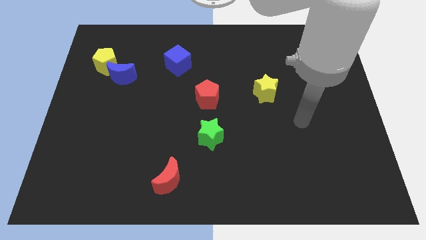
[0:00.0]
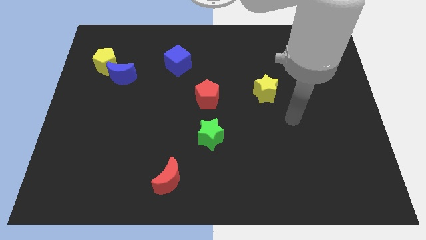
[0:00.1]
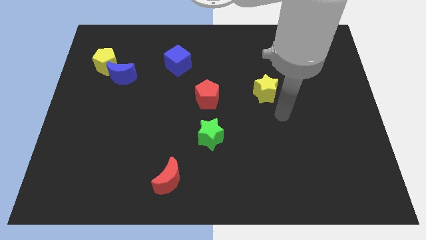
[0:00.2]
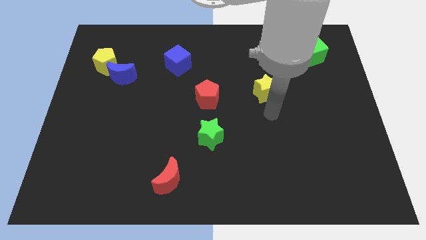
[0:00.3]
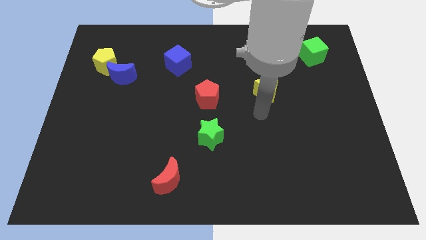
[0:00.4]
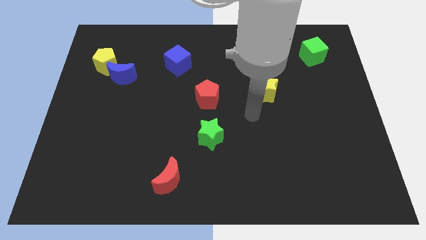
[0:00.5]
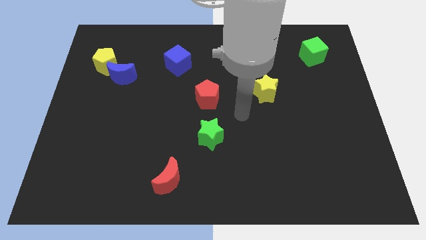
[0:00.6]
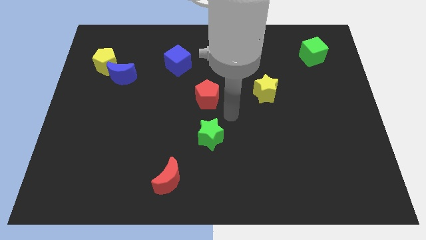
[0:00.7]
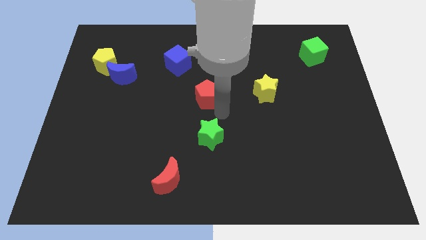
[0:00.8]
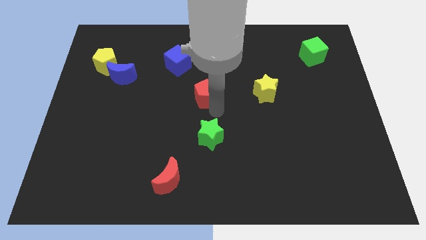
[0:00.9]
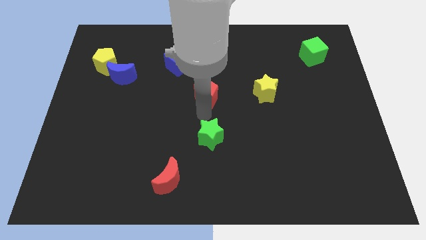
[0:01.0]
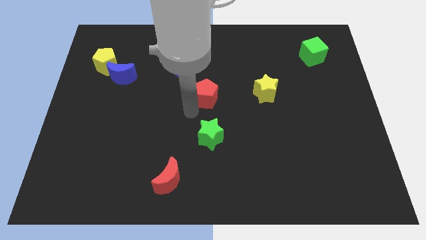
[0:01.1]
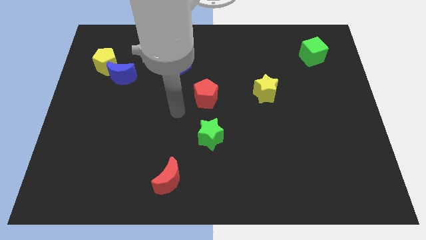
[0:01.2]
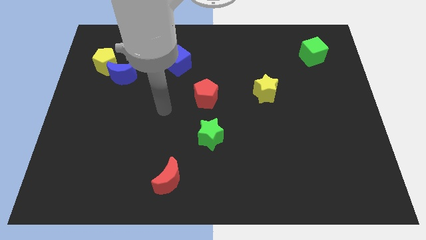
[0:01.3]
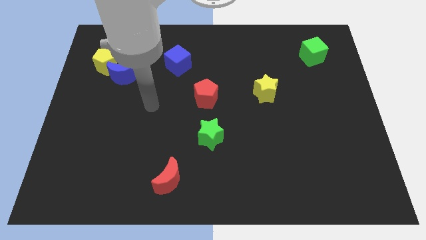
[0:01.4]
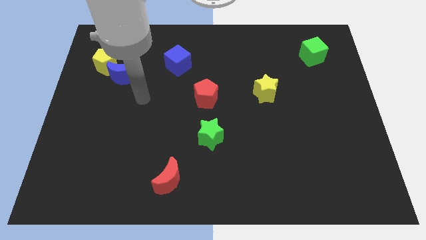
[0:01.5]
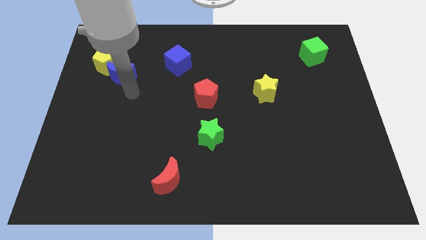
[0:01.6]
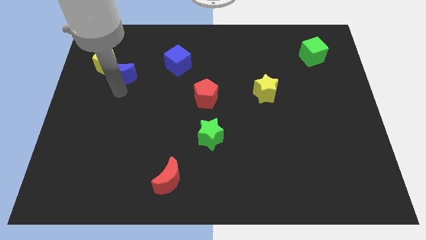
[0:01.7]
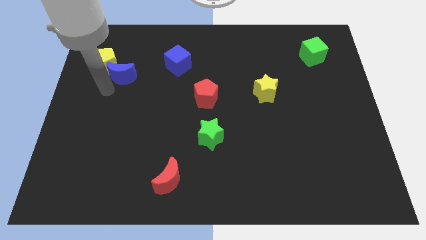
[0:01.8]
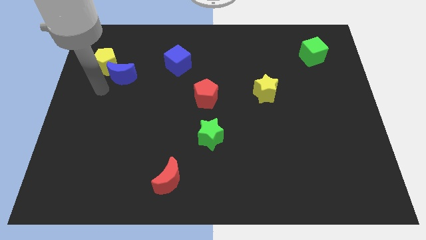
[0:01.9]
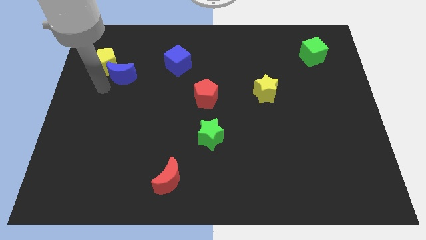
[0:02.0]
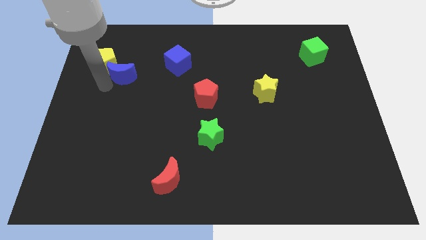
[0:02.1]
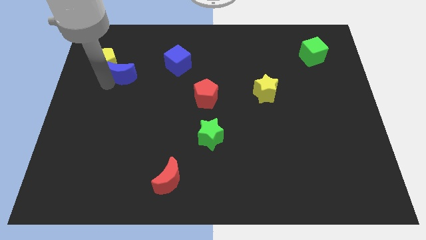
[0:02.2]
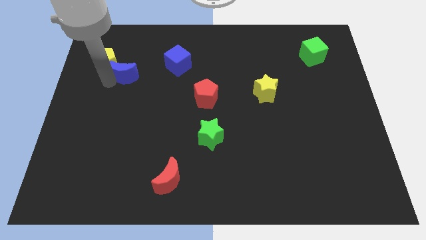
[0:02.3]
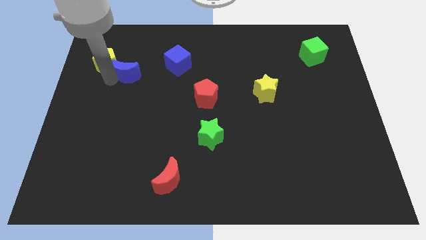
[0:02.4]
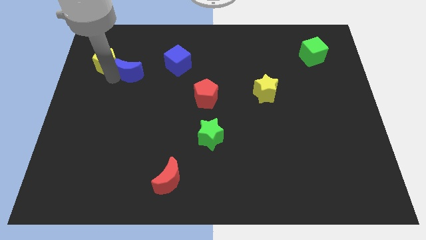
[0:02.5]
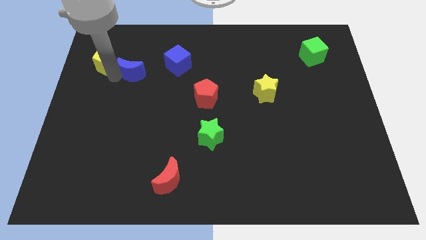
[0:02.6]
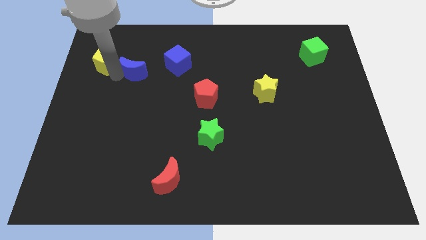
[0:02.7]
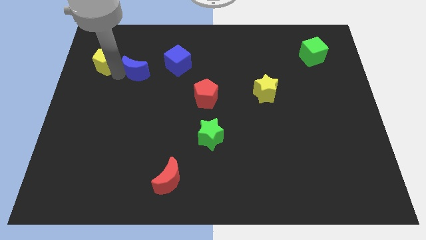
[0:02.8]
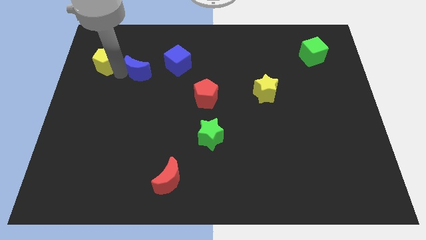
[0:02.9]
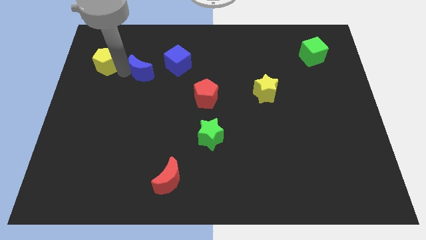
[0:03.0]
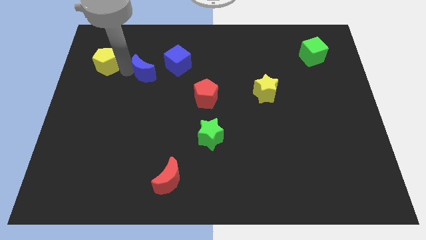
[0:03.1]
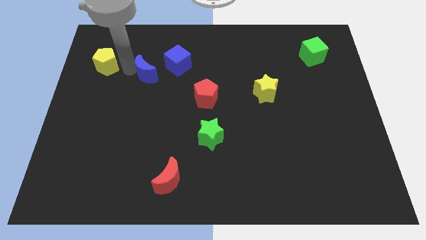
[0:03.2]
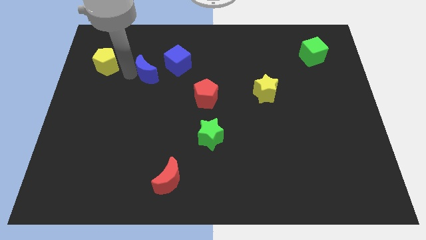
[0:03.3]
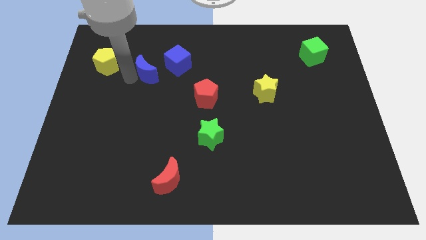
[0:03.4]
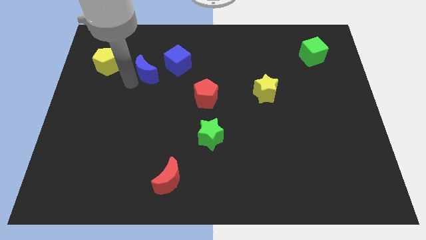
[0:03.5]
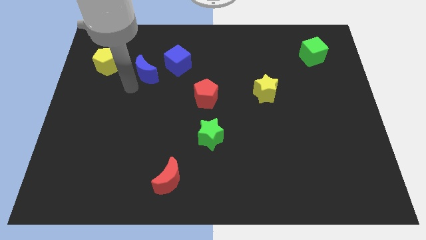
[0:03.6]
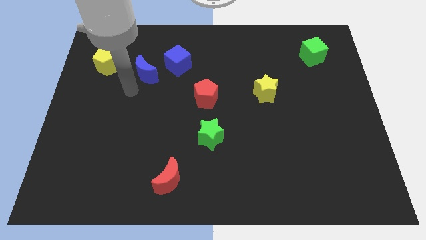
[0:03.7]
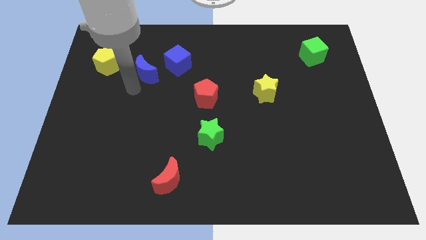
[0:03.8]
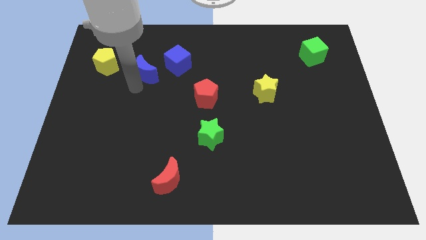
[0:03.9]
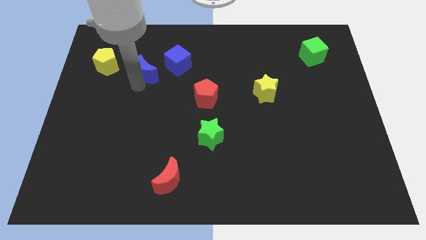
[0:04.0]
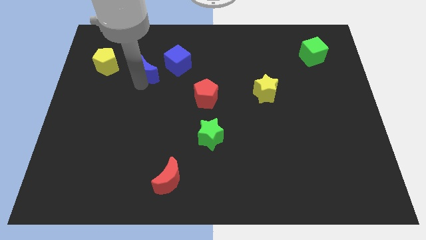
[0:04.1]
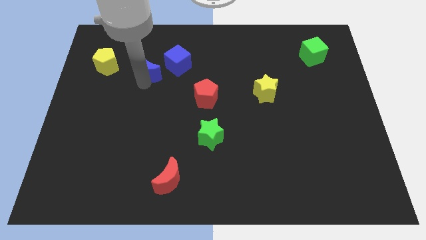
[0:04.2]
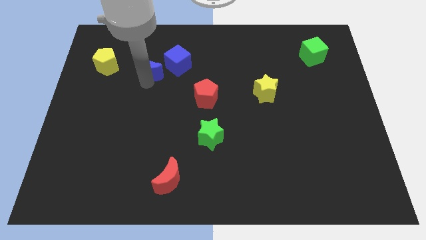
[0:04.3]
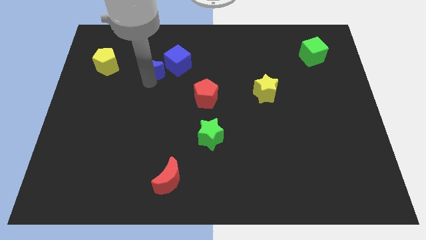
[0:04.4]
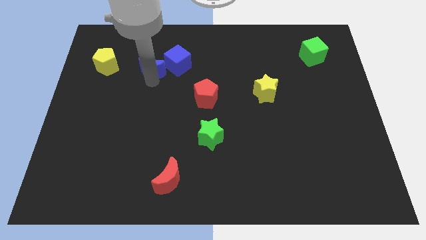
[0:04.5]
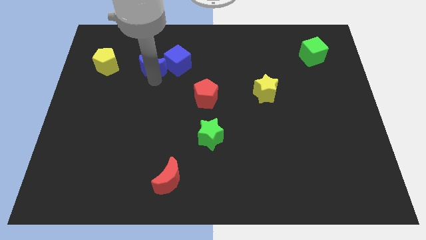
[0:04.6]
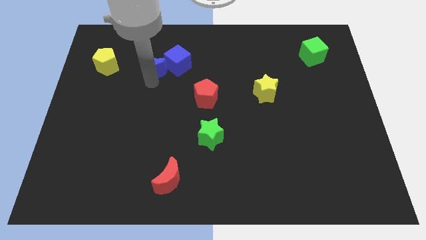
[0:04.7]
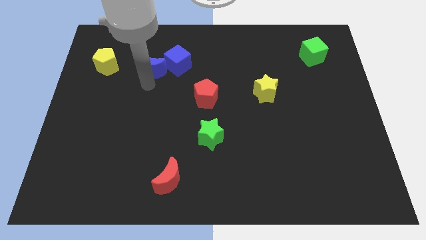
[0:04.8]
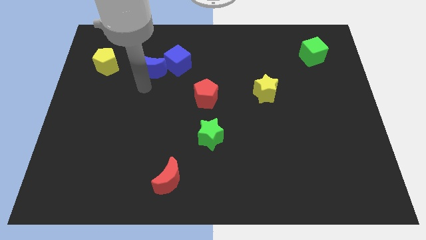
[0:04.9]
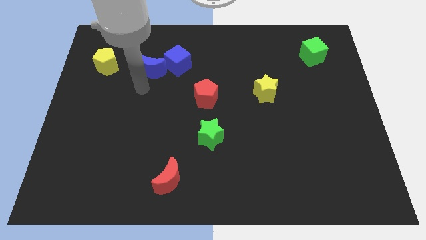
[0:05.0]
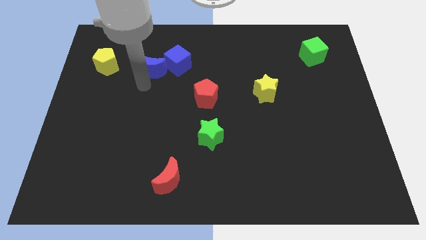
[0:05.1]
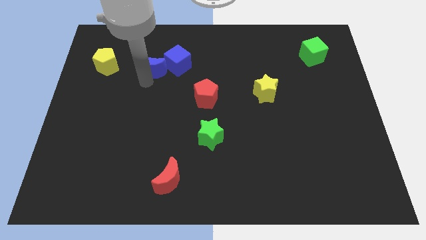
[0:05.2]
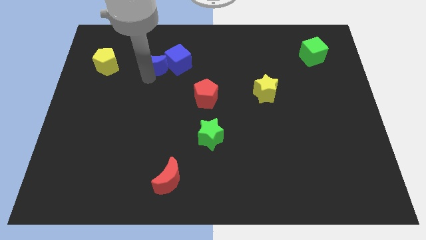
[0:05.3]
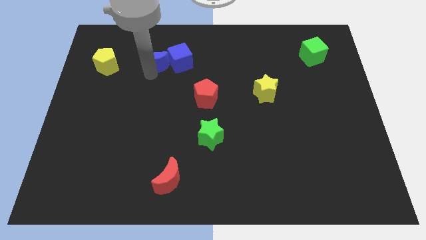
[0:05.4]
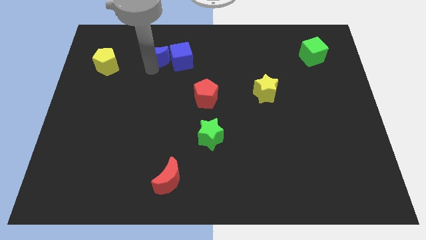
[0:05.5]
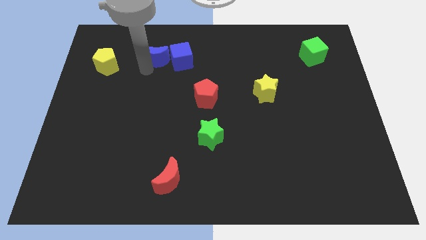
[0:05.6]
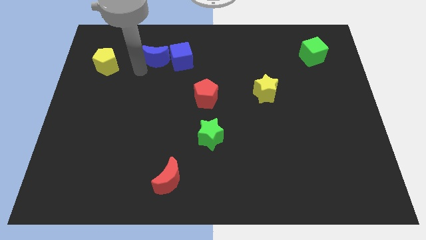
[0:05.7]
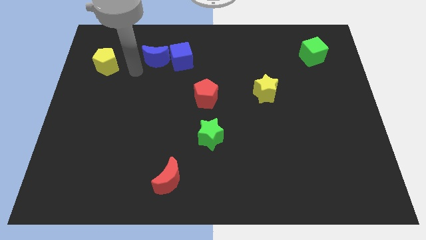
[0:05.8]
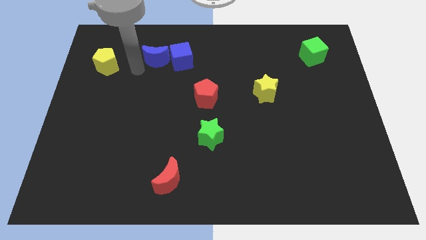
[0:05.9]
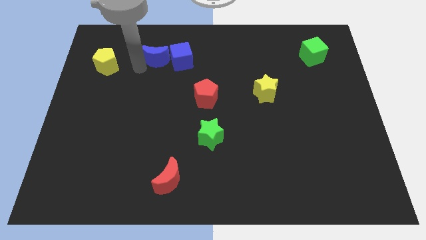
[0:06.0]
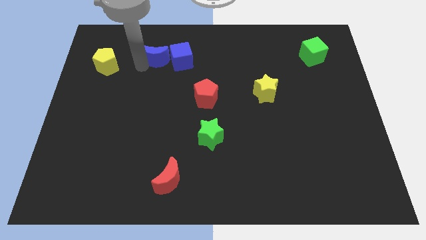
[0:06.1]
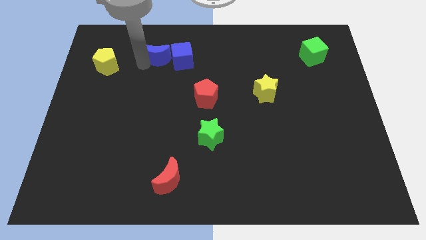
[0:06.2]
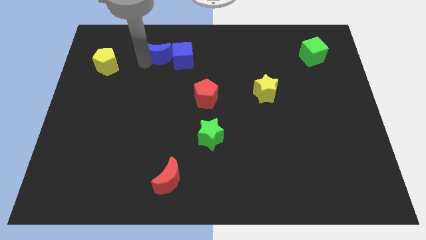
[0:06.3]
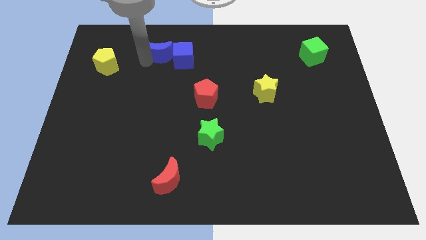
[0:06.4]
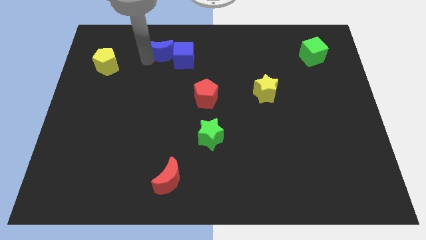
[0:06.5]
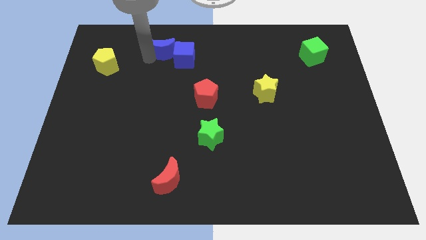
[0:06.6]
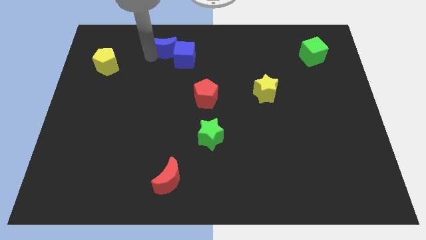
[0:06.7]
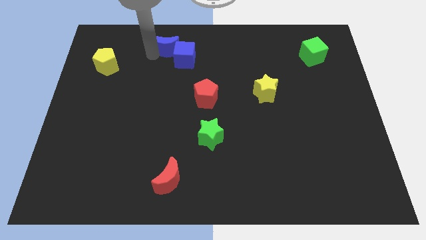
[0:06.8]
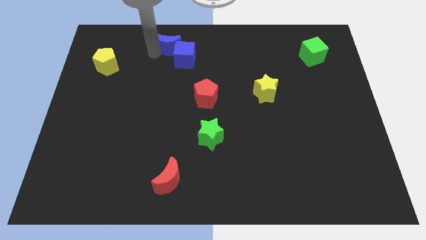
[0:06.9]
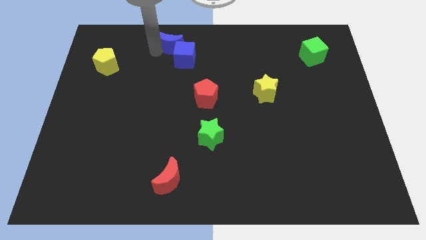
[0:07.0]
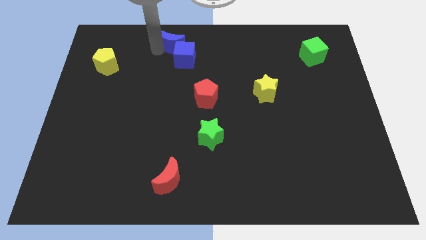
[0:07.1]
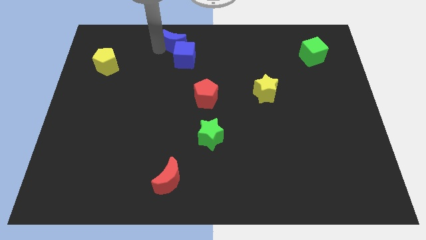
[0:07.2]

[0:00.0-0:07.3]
push the blue moon to the towards your base
